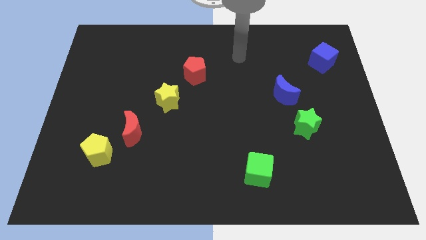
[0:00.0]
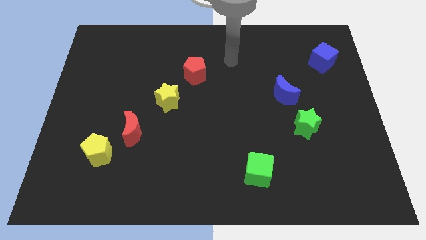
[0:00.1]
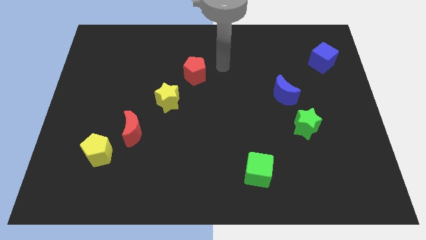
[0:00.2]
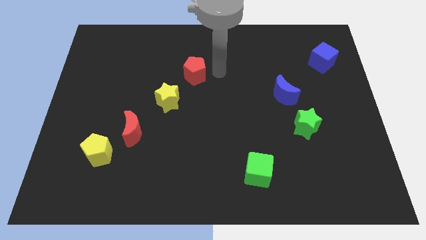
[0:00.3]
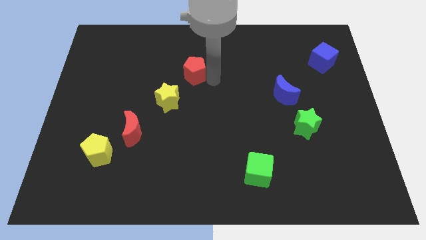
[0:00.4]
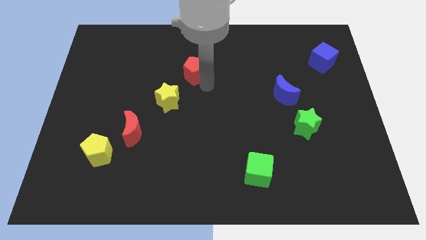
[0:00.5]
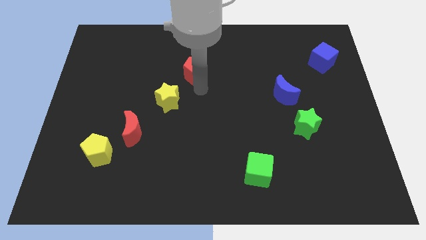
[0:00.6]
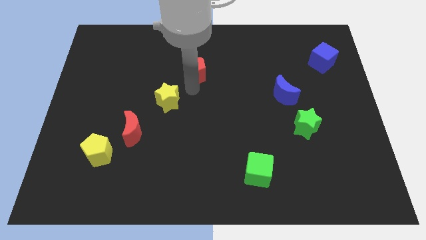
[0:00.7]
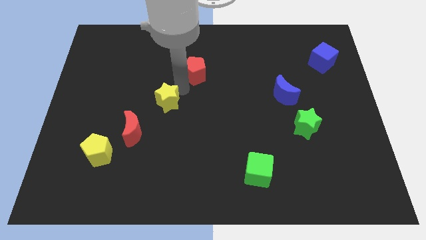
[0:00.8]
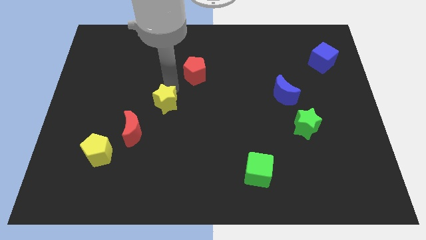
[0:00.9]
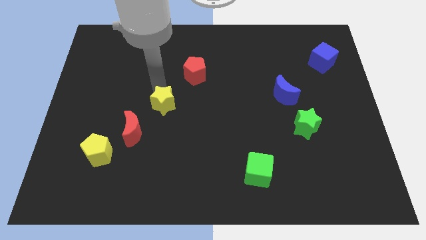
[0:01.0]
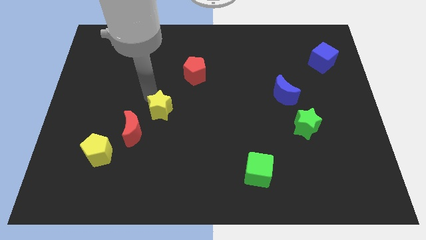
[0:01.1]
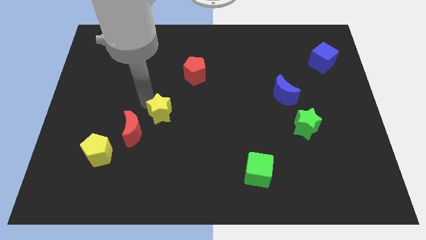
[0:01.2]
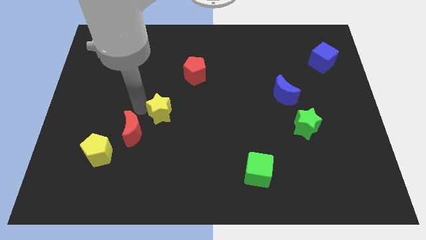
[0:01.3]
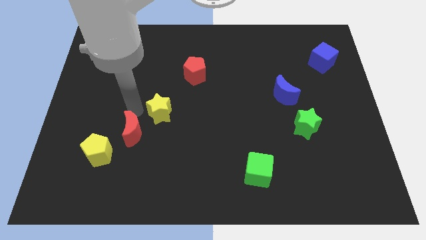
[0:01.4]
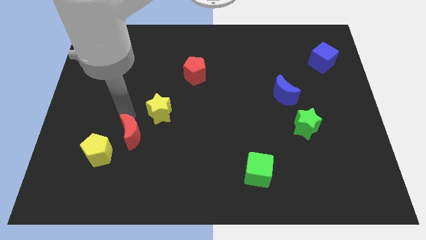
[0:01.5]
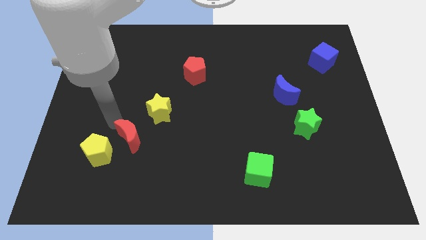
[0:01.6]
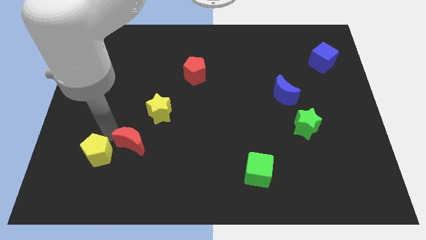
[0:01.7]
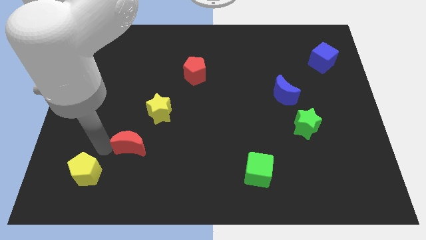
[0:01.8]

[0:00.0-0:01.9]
pull the red moon apart from the yellow pentagon

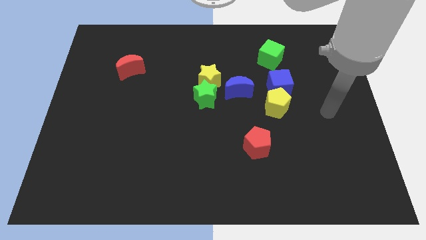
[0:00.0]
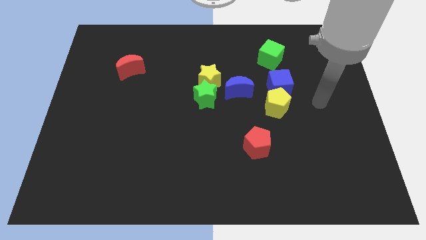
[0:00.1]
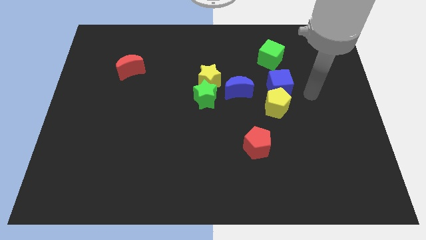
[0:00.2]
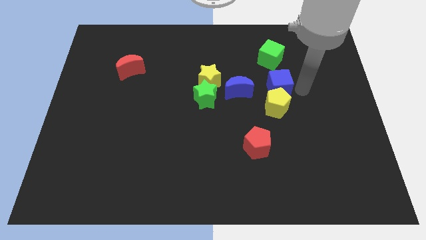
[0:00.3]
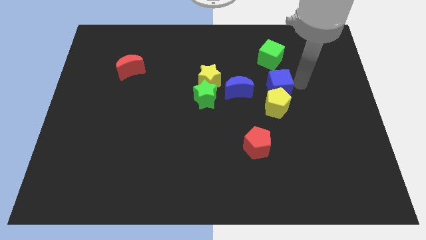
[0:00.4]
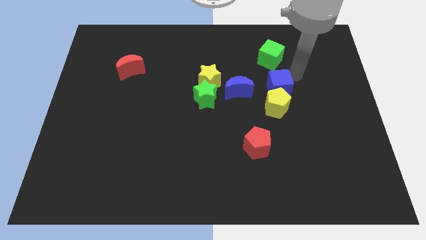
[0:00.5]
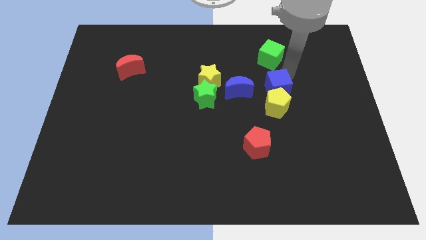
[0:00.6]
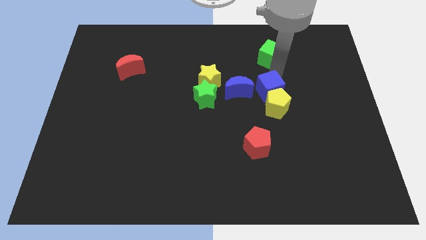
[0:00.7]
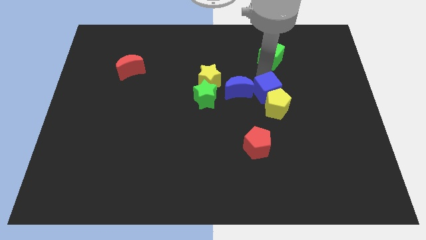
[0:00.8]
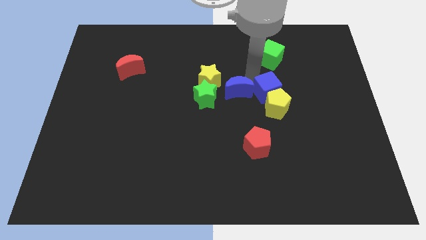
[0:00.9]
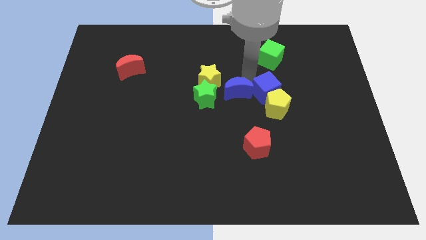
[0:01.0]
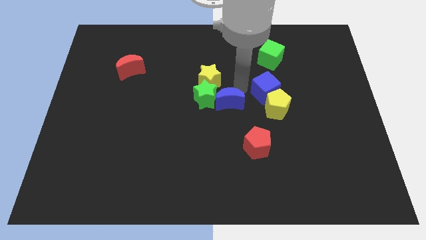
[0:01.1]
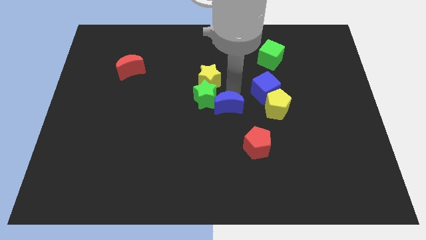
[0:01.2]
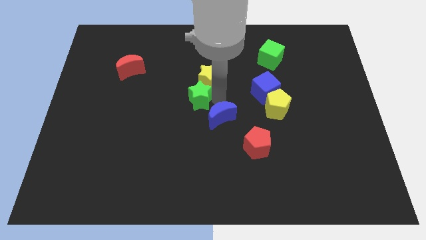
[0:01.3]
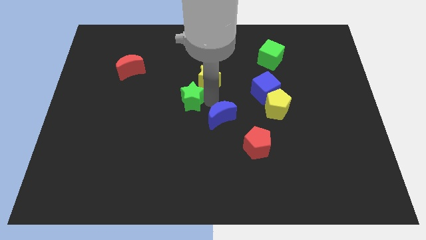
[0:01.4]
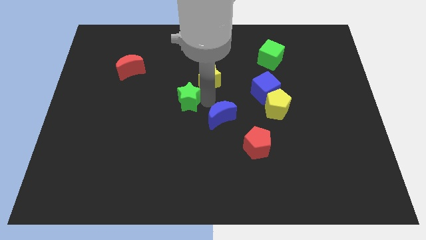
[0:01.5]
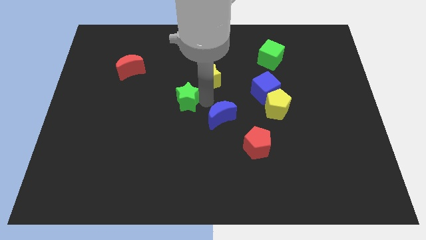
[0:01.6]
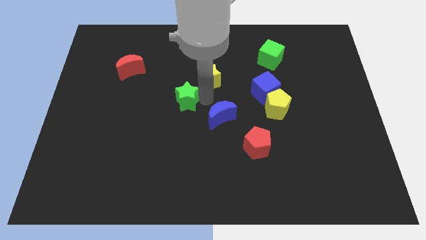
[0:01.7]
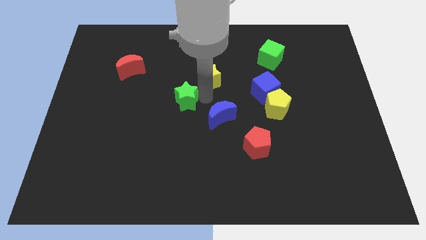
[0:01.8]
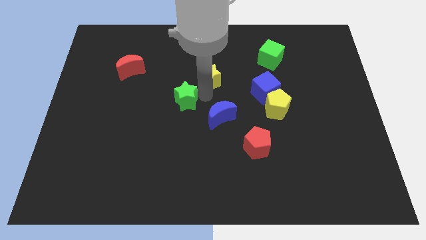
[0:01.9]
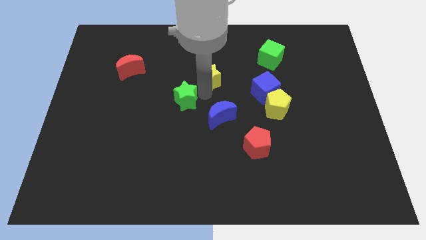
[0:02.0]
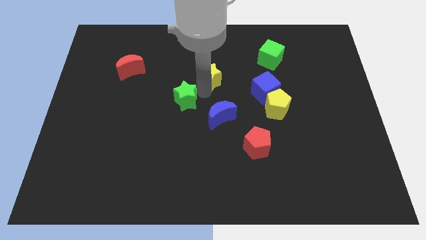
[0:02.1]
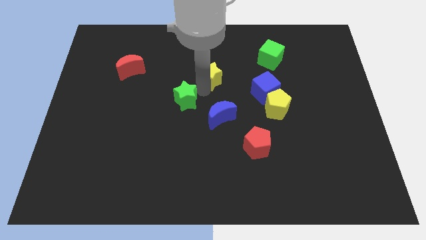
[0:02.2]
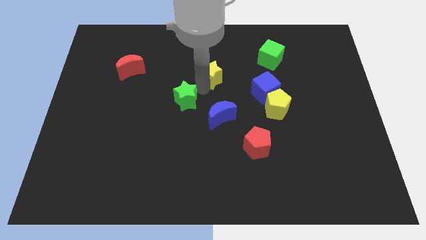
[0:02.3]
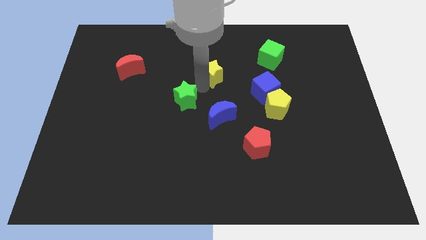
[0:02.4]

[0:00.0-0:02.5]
move the yellow star away from the green star and blue moon

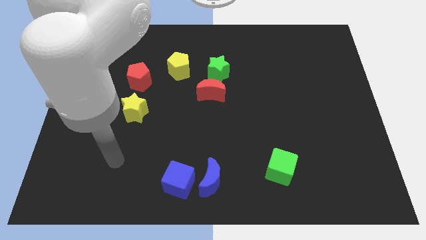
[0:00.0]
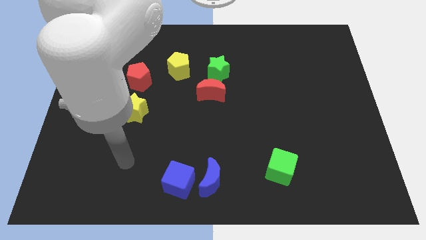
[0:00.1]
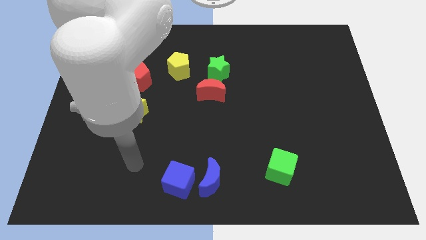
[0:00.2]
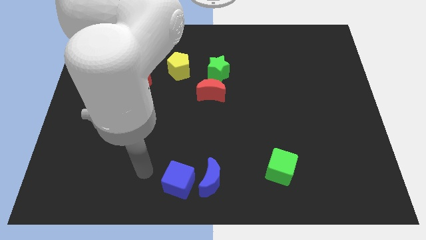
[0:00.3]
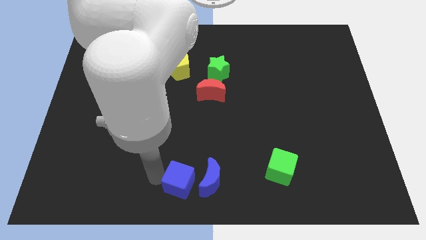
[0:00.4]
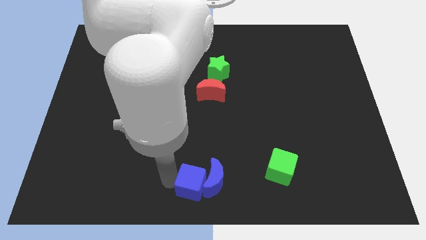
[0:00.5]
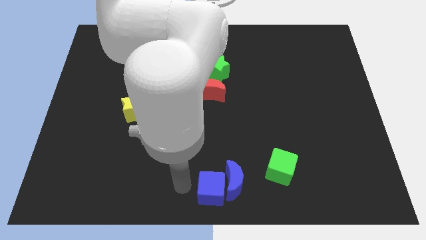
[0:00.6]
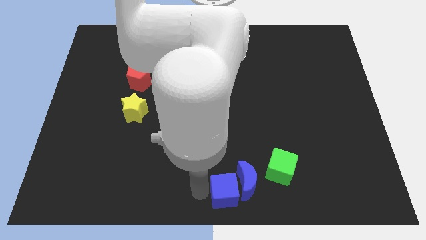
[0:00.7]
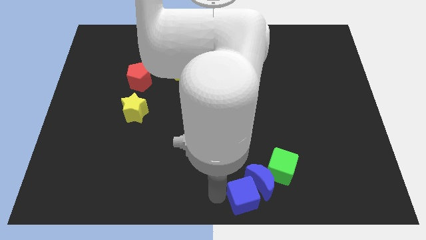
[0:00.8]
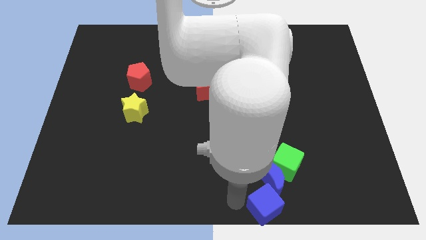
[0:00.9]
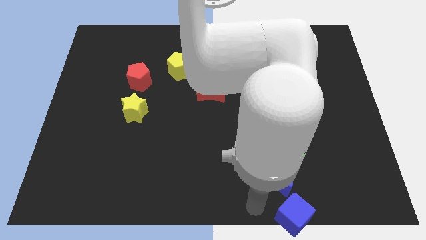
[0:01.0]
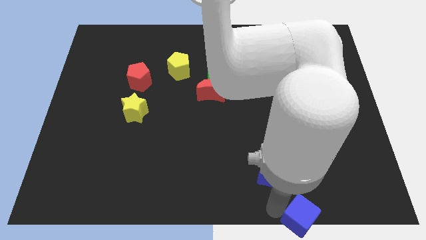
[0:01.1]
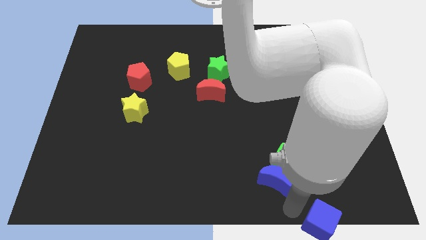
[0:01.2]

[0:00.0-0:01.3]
move the blue moon away from the blue cube

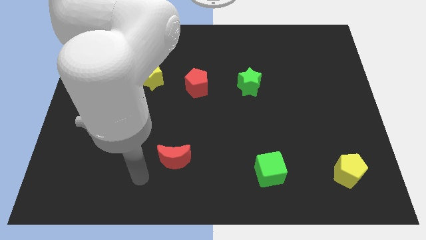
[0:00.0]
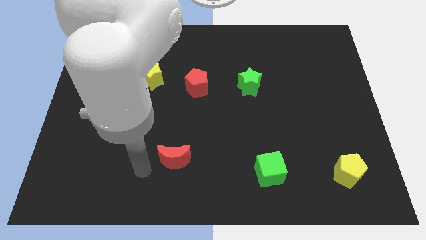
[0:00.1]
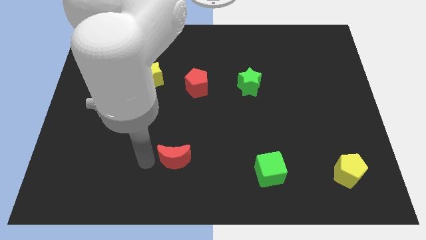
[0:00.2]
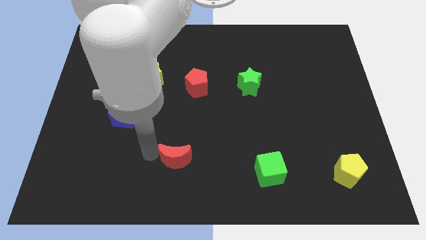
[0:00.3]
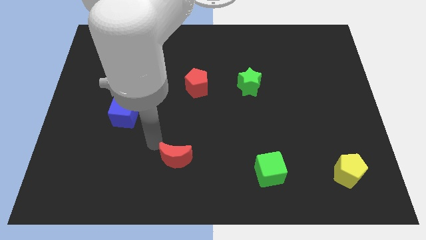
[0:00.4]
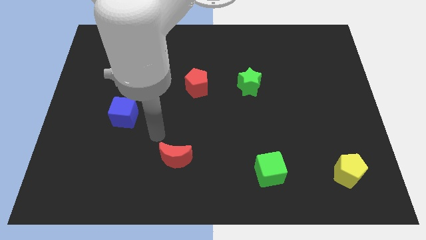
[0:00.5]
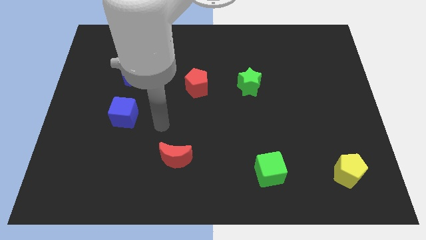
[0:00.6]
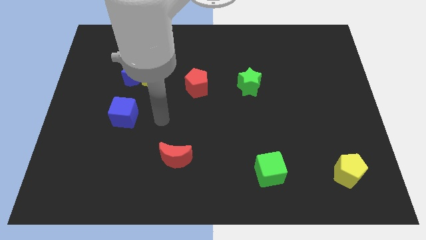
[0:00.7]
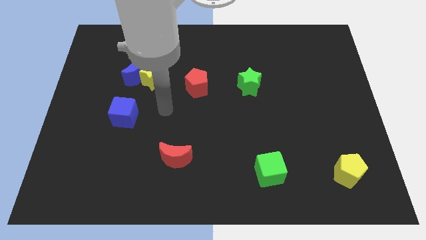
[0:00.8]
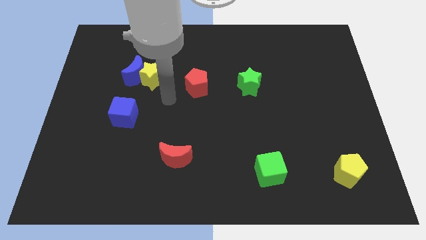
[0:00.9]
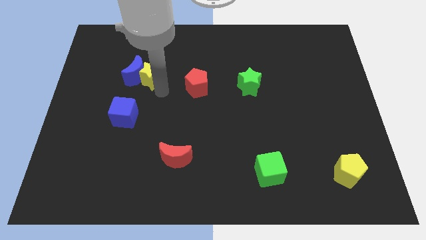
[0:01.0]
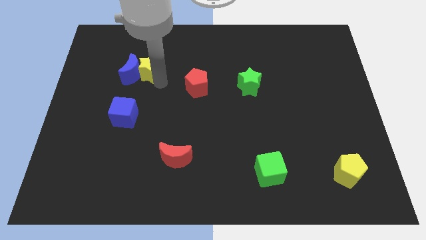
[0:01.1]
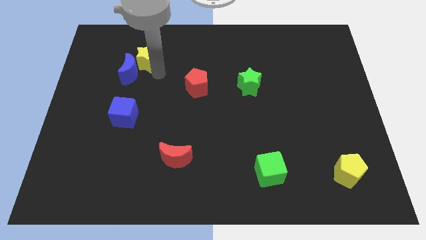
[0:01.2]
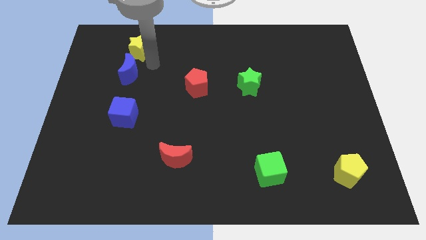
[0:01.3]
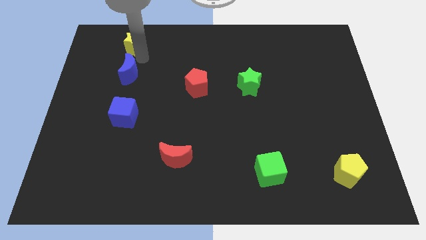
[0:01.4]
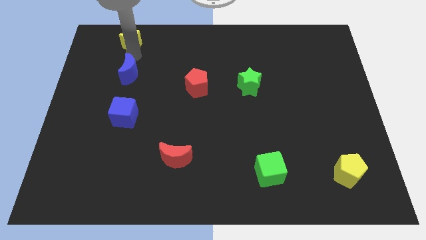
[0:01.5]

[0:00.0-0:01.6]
pull the blue moon apart from the yellow star

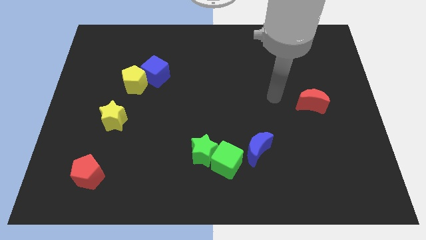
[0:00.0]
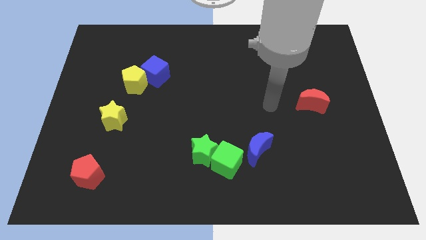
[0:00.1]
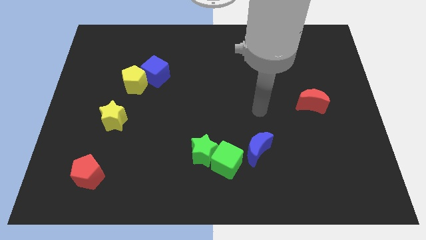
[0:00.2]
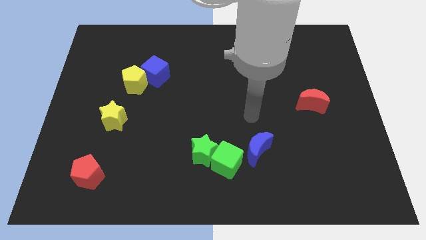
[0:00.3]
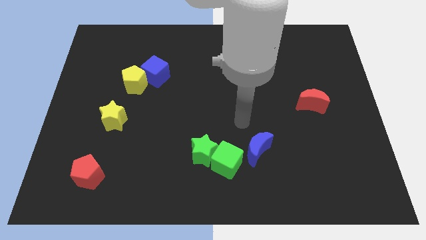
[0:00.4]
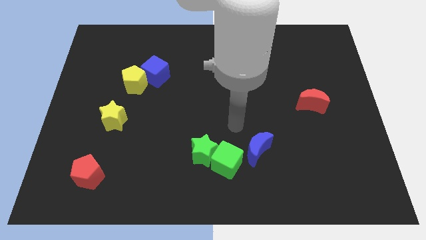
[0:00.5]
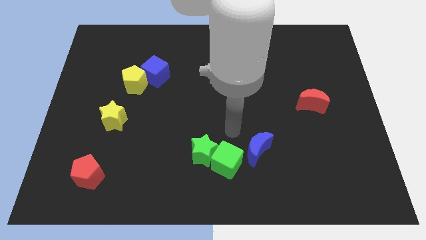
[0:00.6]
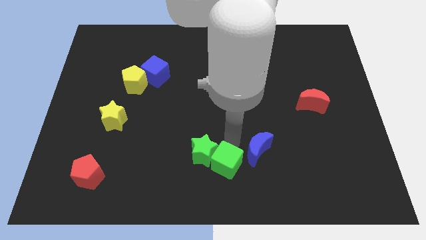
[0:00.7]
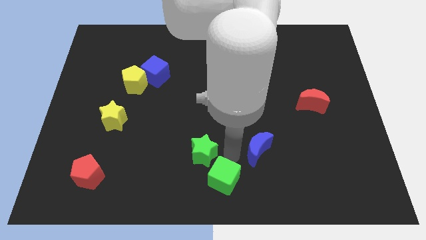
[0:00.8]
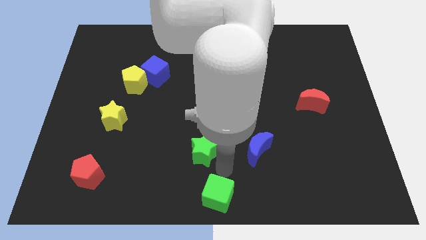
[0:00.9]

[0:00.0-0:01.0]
move the green star away from the green cube

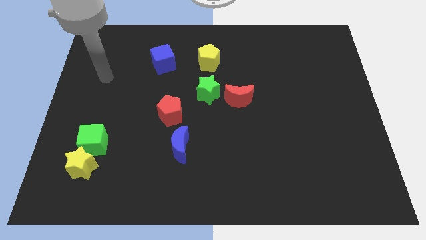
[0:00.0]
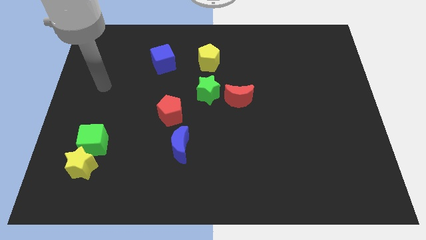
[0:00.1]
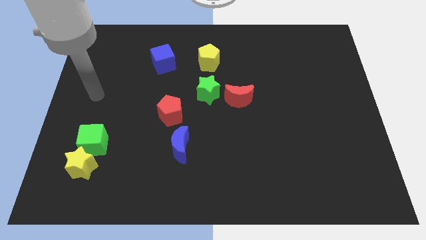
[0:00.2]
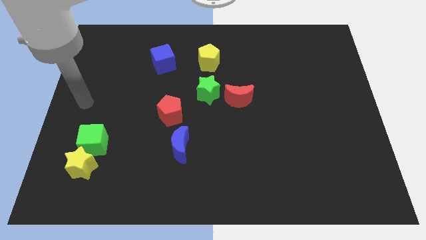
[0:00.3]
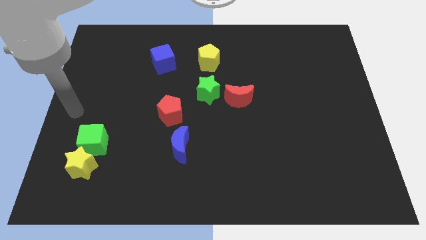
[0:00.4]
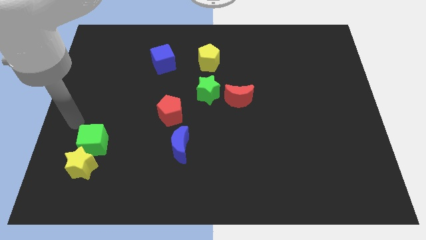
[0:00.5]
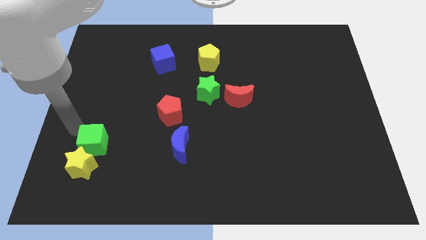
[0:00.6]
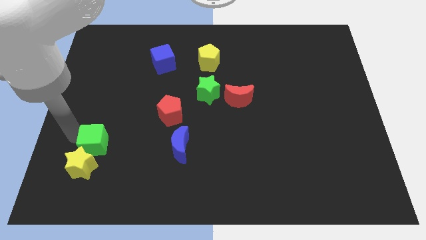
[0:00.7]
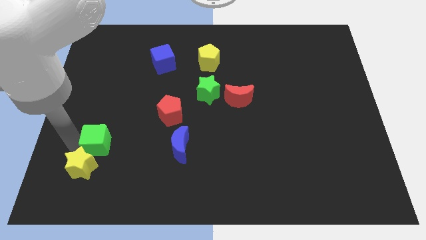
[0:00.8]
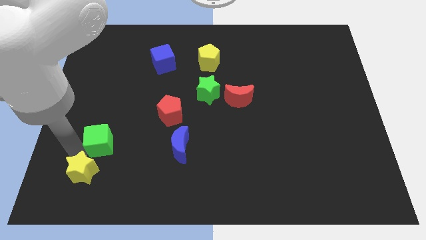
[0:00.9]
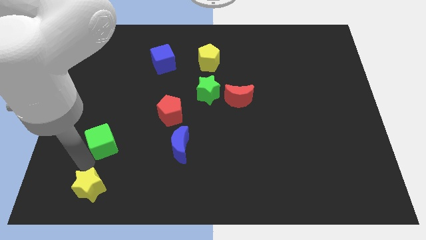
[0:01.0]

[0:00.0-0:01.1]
separate the green cube from the yellow star
